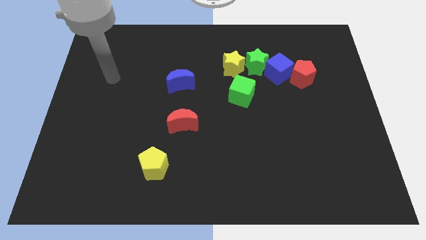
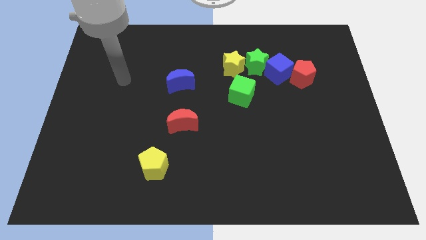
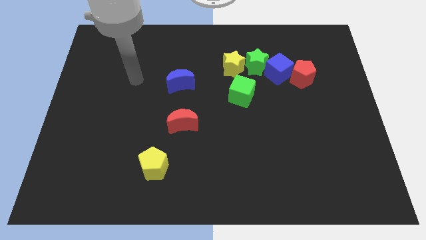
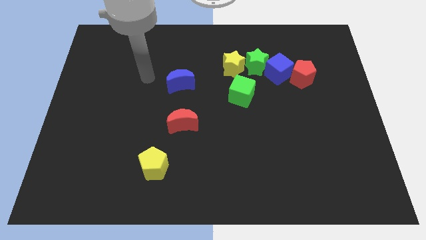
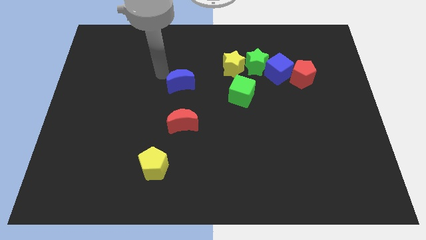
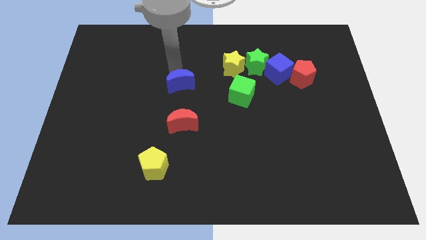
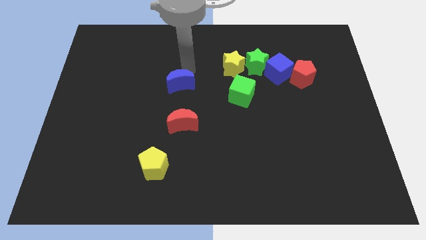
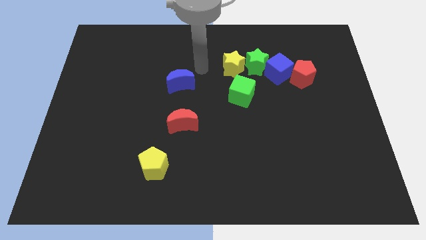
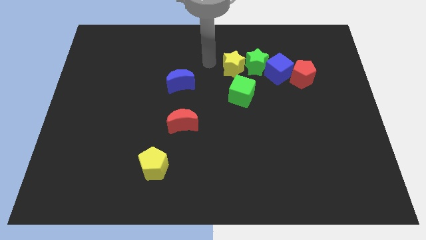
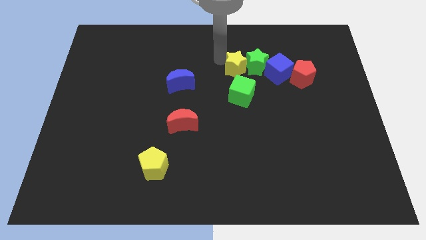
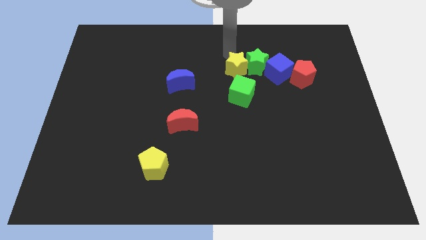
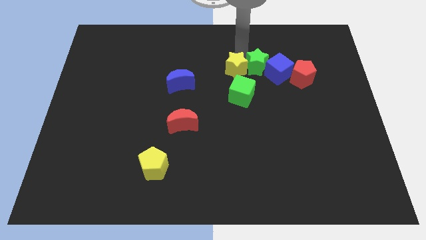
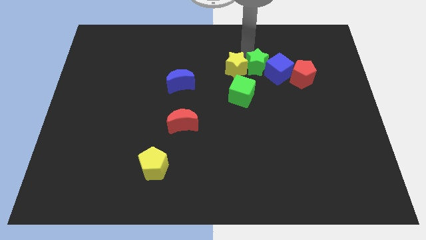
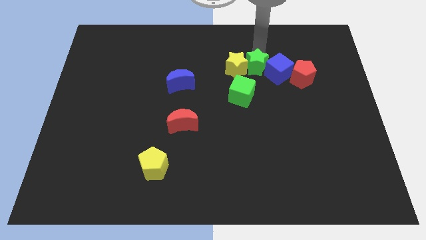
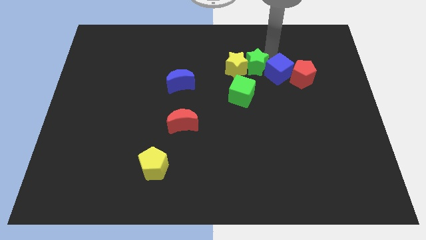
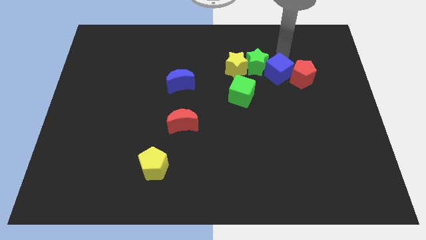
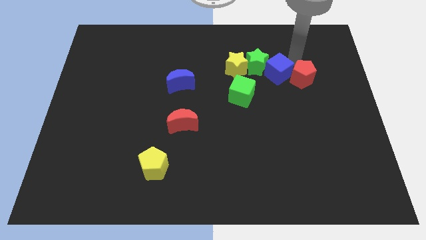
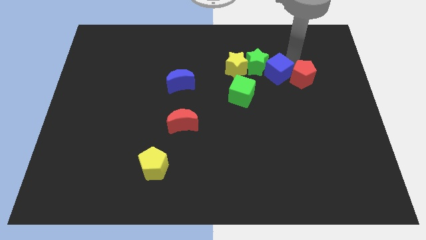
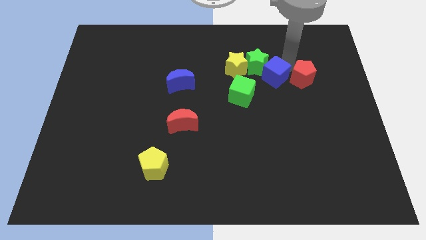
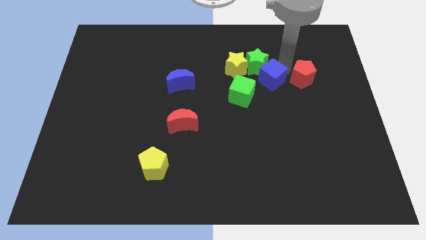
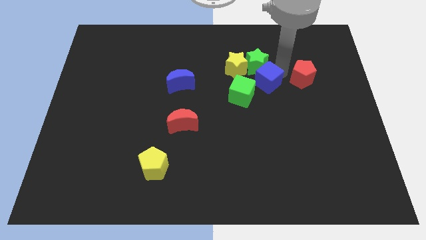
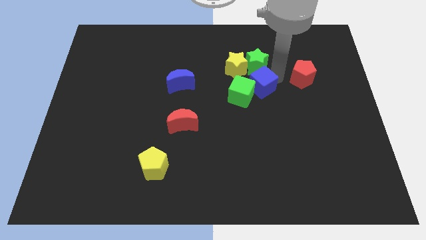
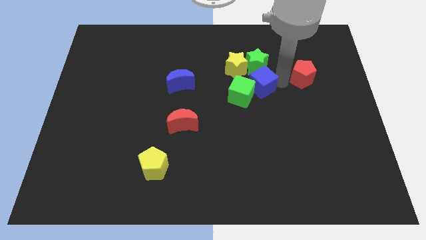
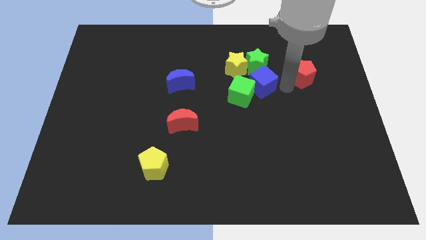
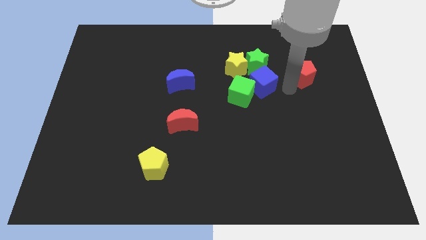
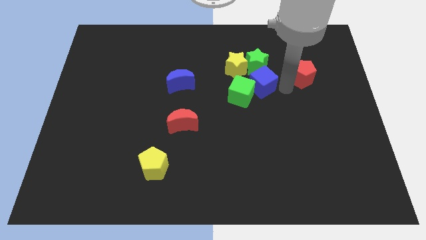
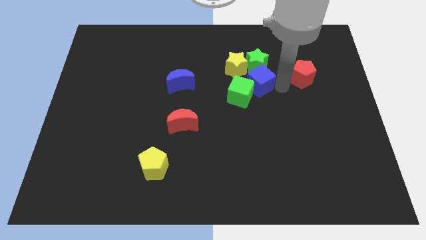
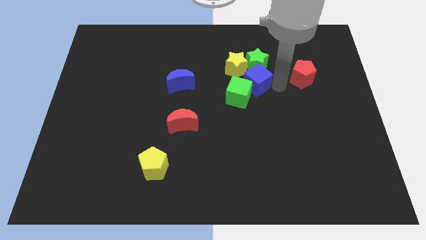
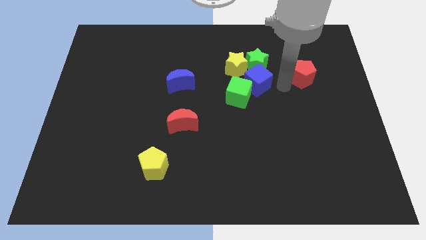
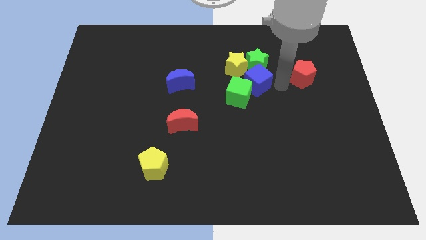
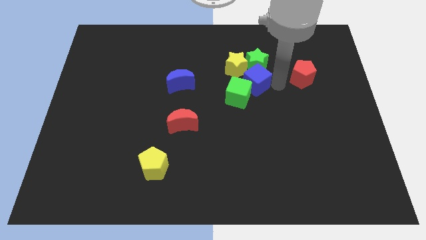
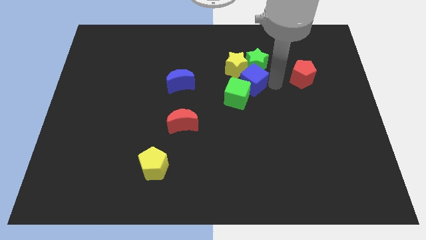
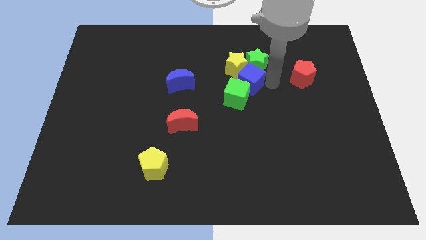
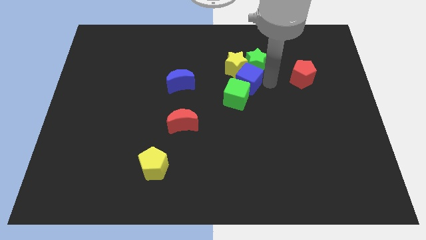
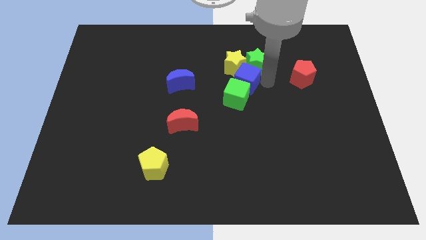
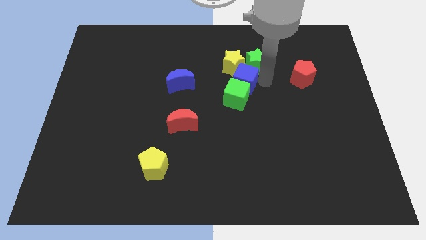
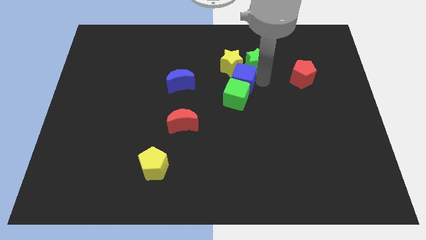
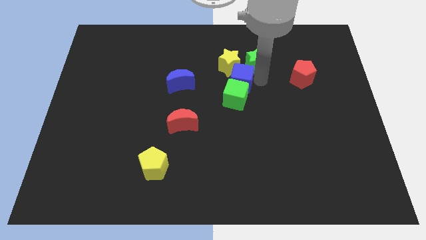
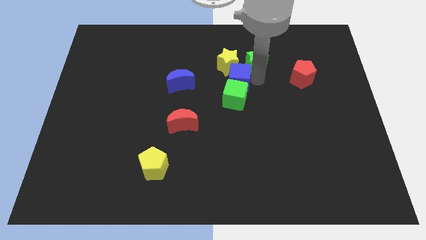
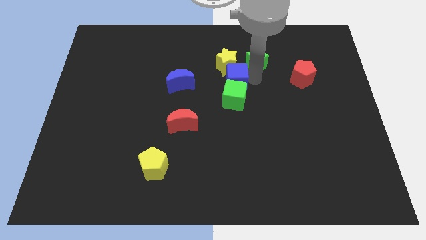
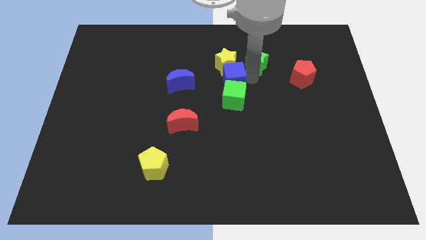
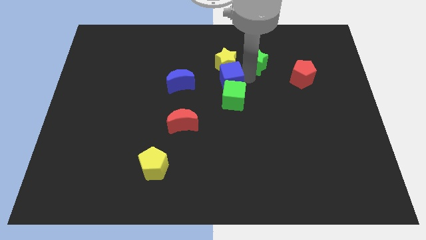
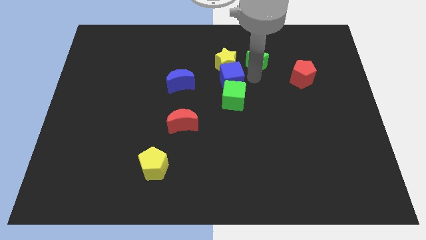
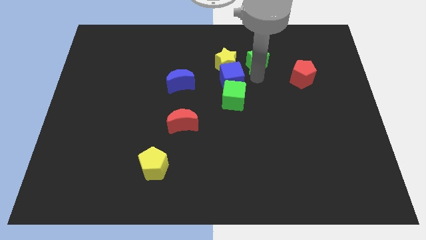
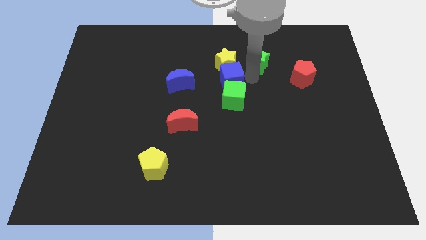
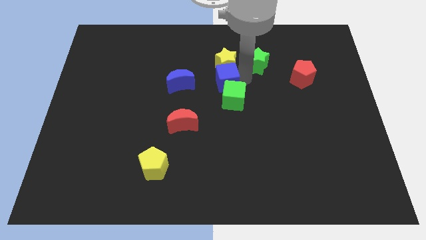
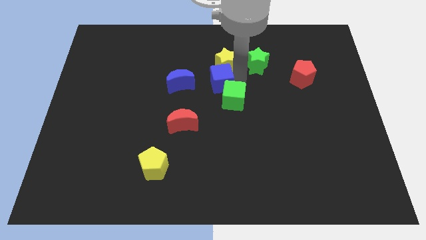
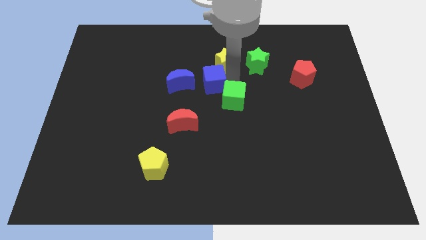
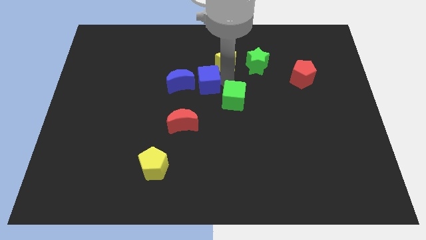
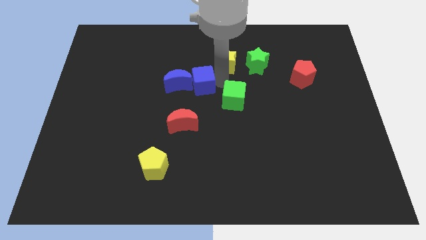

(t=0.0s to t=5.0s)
move the blue cube close to the blue moon

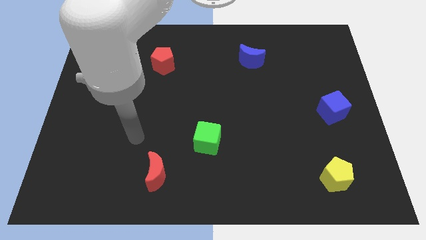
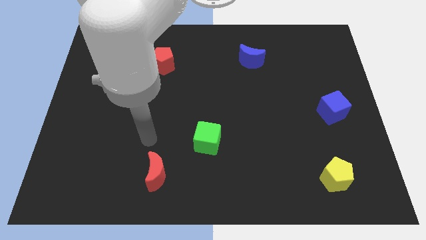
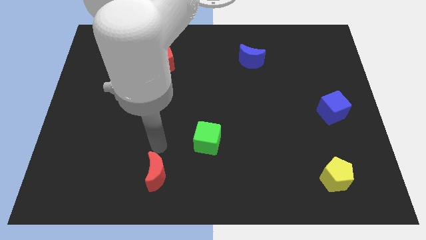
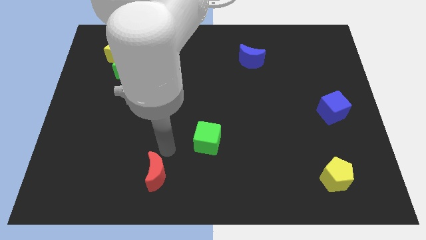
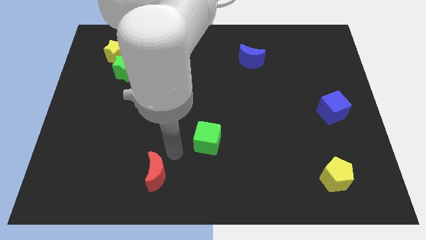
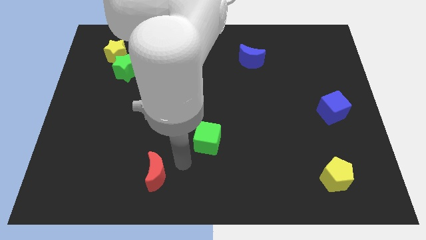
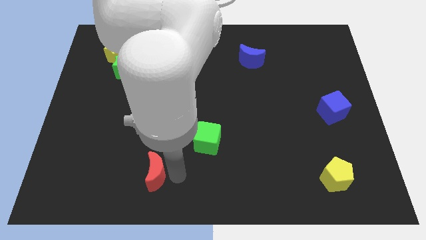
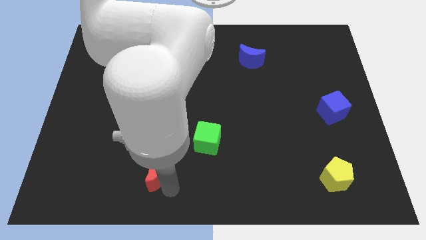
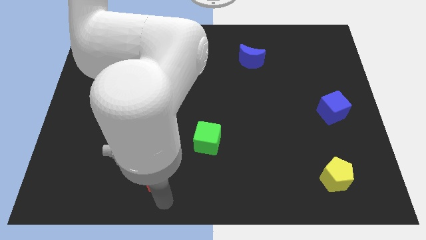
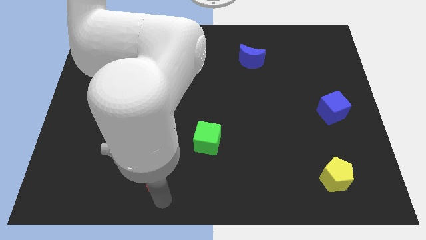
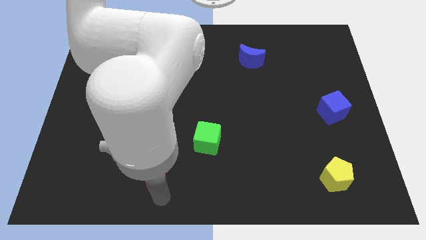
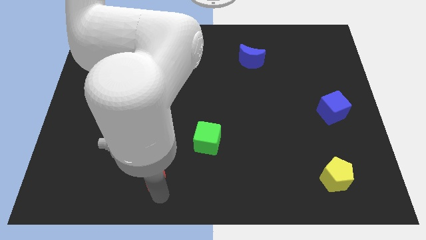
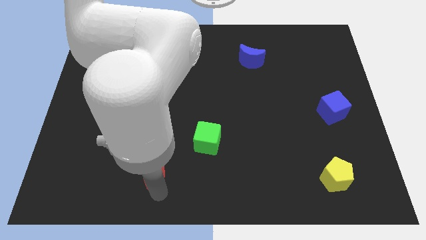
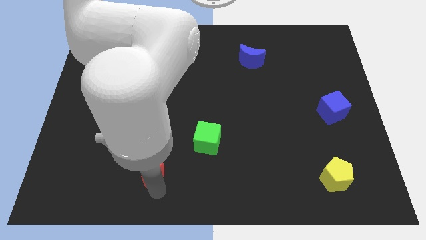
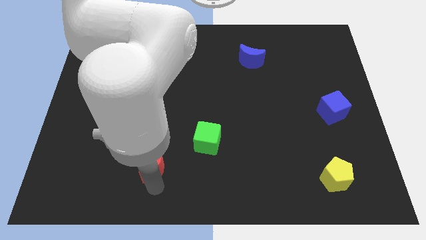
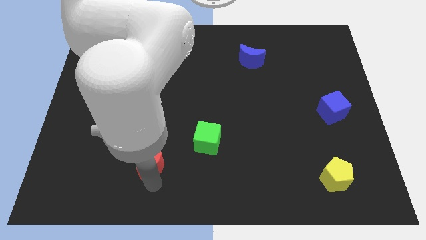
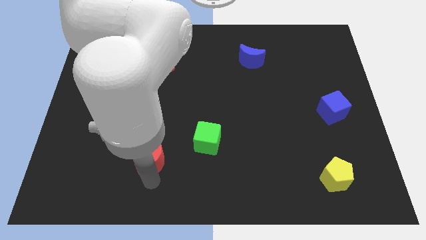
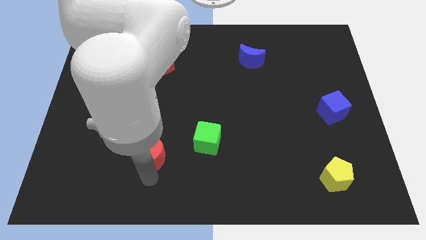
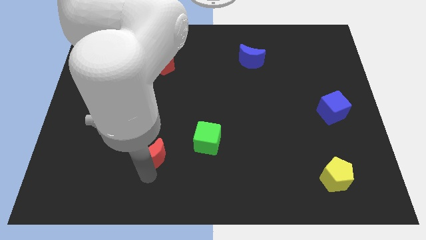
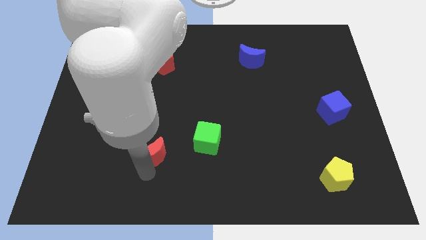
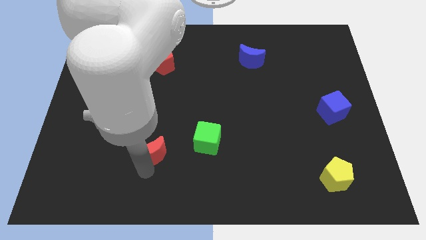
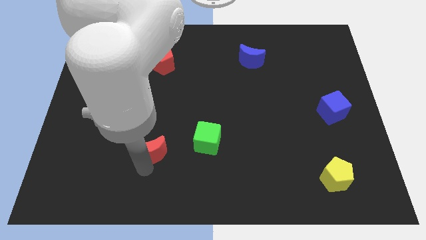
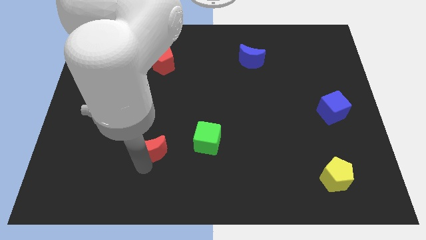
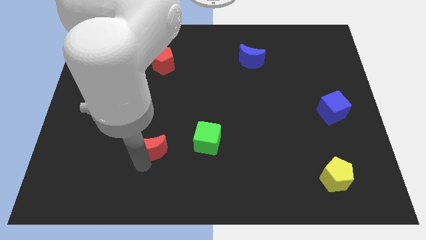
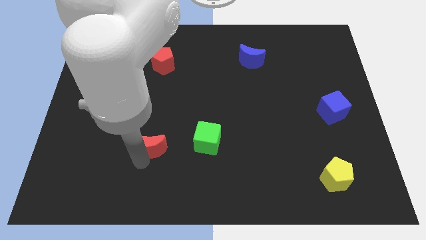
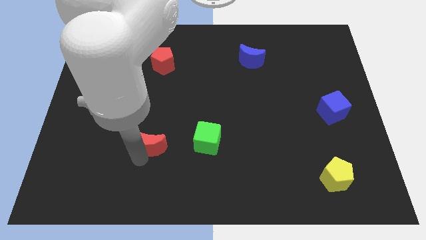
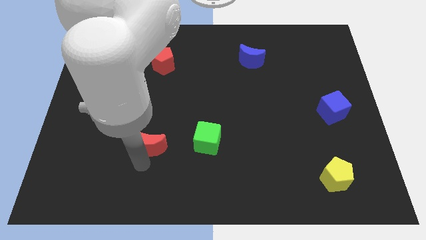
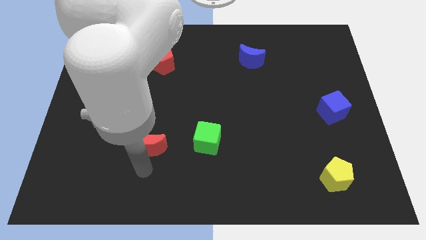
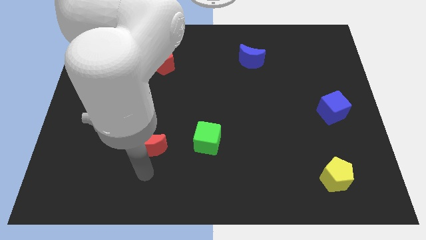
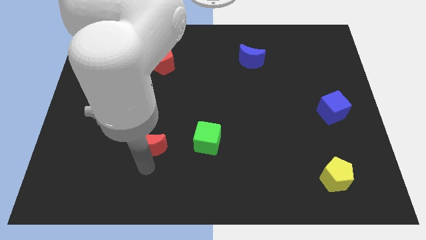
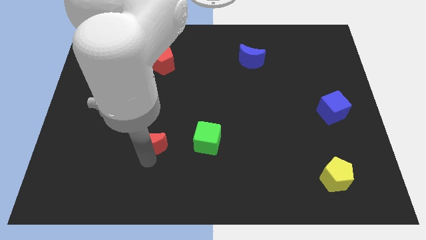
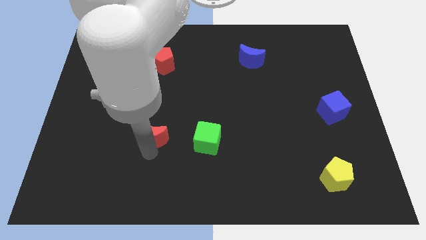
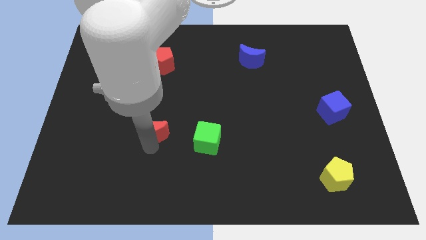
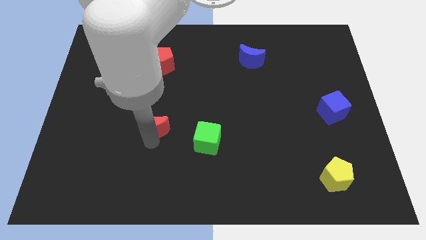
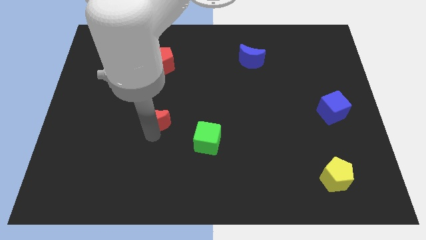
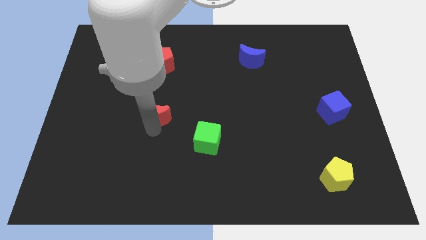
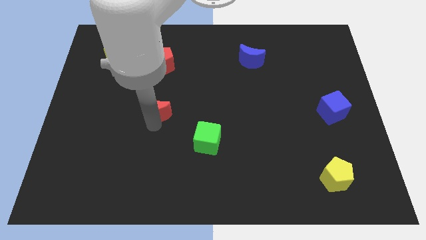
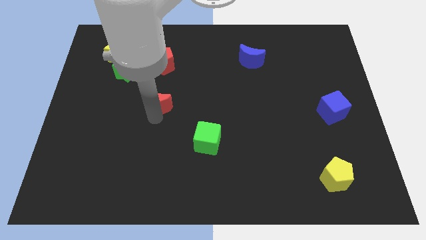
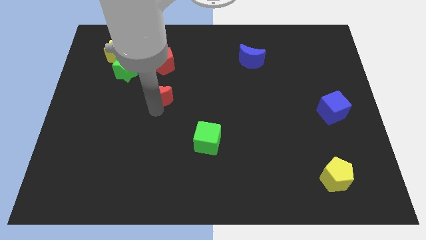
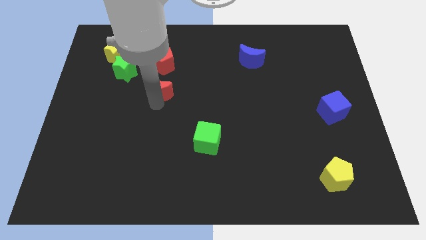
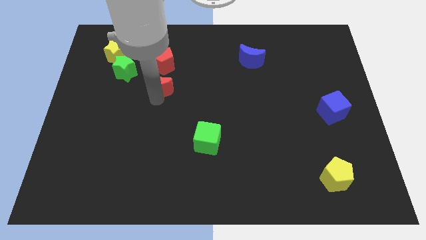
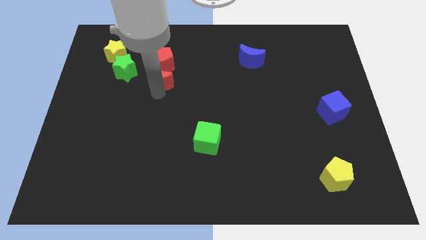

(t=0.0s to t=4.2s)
slide the red moon close to the red pentagon
